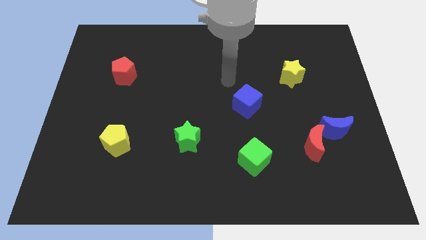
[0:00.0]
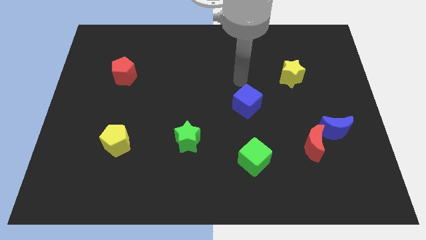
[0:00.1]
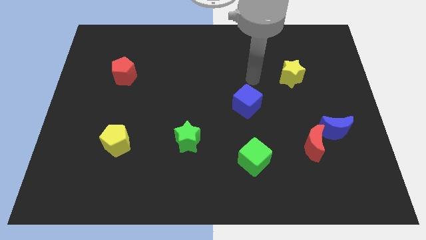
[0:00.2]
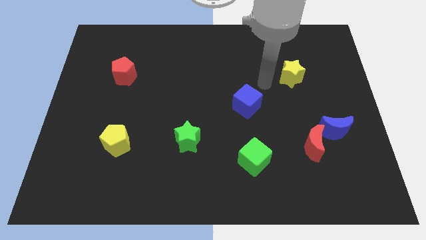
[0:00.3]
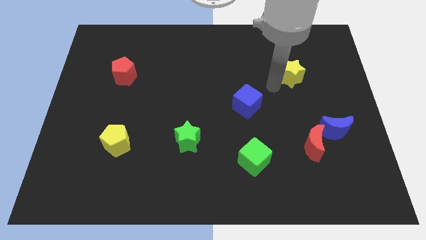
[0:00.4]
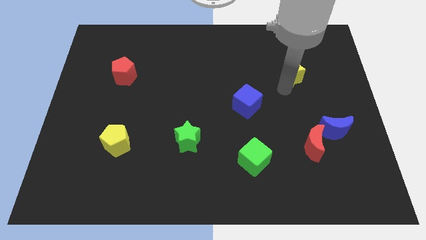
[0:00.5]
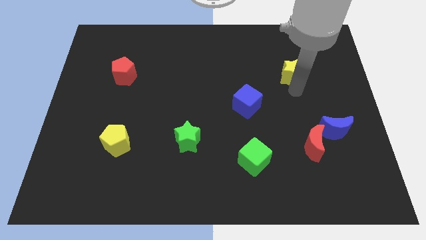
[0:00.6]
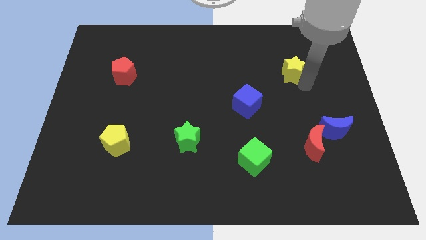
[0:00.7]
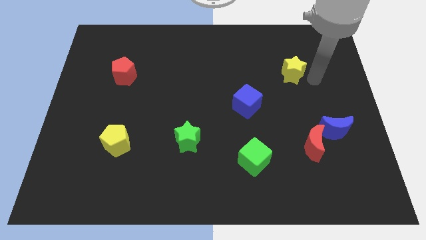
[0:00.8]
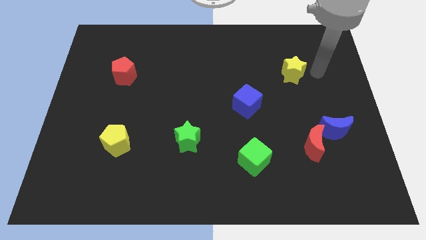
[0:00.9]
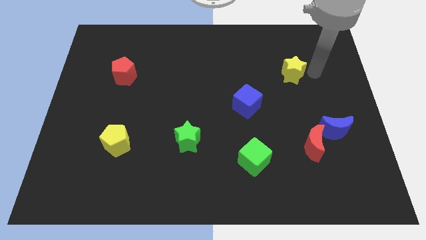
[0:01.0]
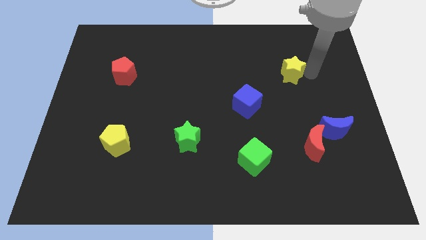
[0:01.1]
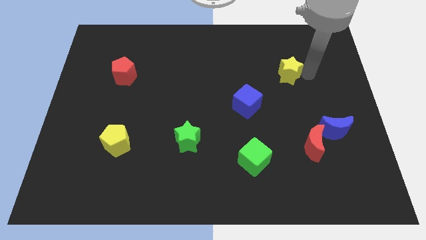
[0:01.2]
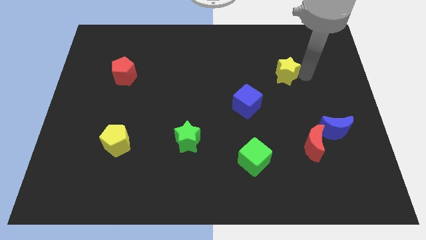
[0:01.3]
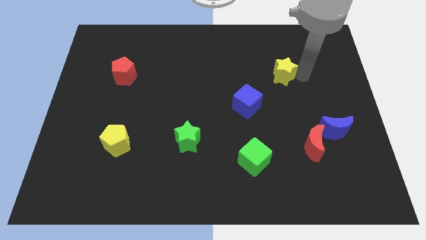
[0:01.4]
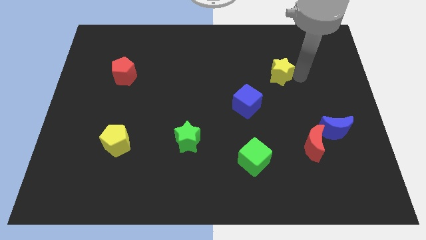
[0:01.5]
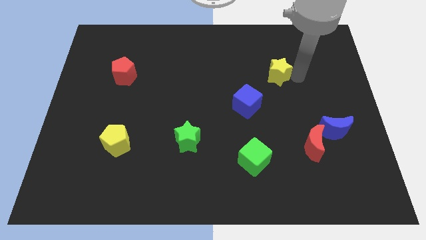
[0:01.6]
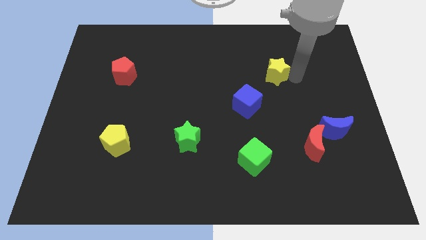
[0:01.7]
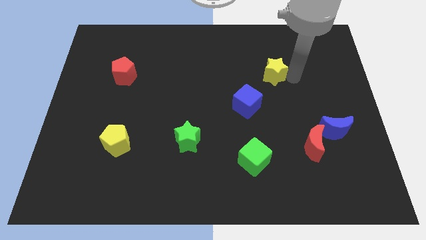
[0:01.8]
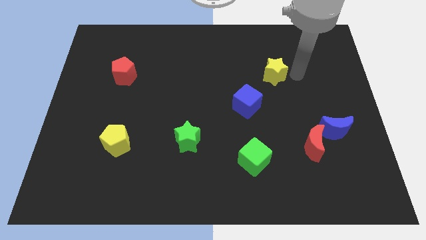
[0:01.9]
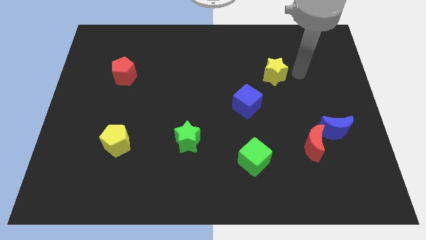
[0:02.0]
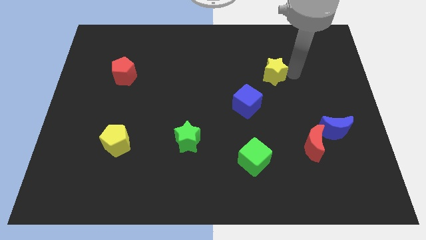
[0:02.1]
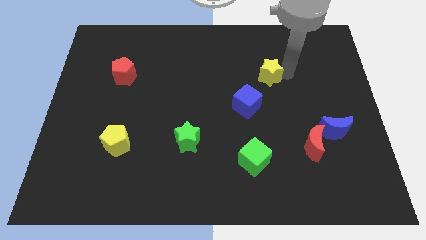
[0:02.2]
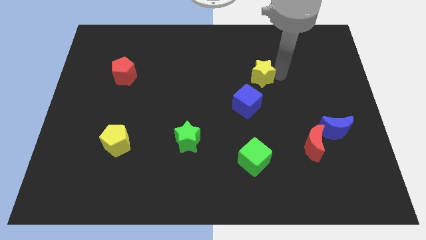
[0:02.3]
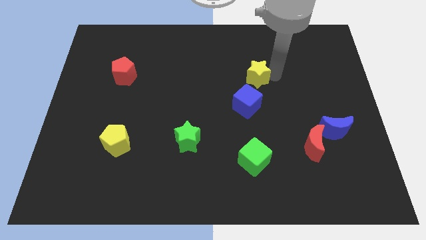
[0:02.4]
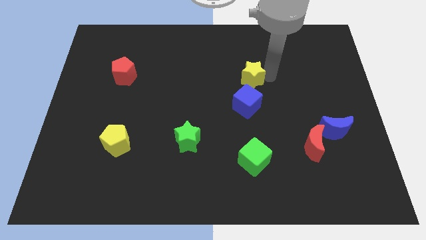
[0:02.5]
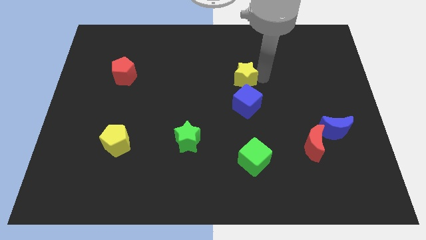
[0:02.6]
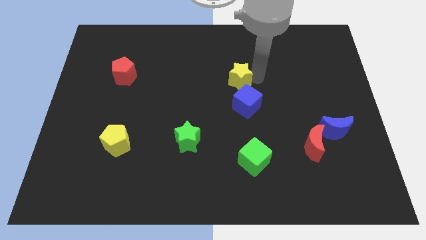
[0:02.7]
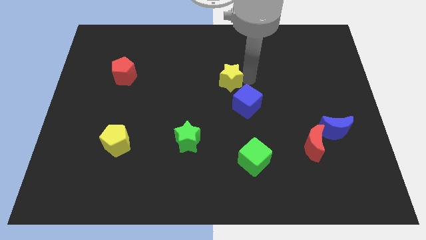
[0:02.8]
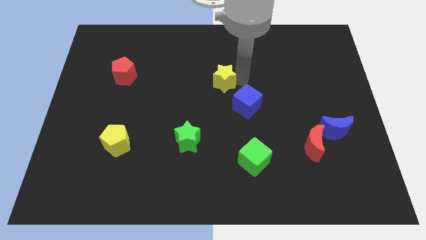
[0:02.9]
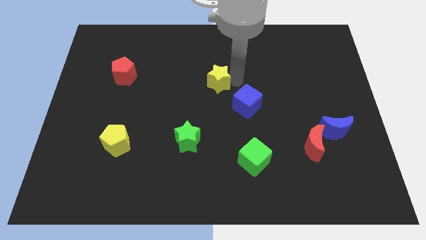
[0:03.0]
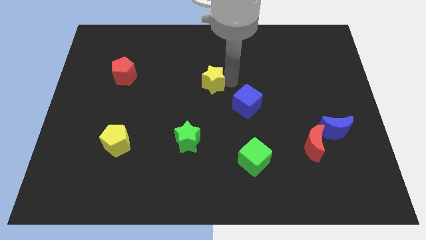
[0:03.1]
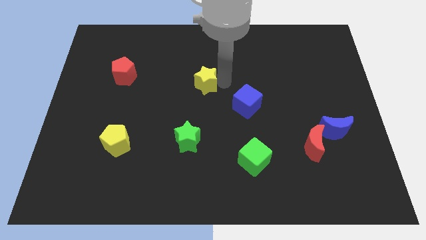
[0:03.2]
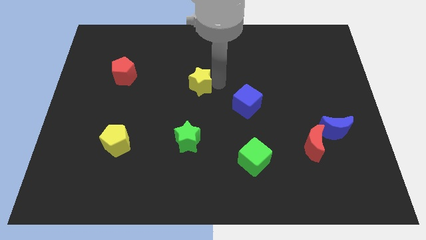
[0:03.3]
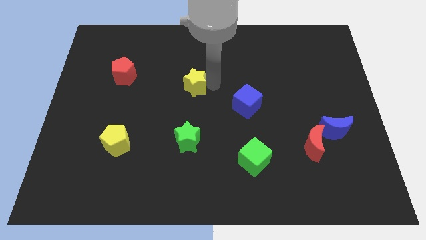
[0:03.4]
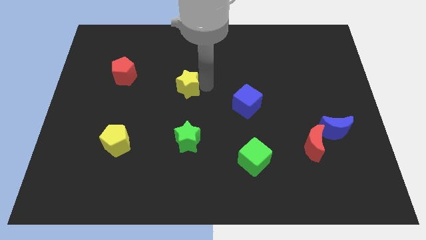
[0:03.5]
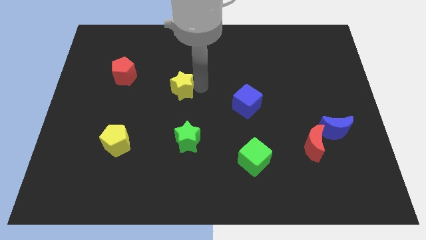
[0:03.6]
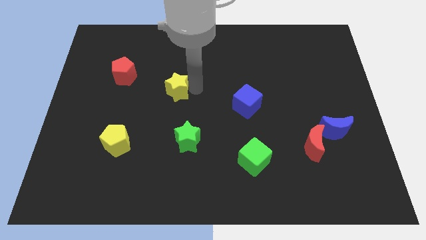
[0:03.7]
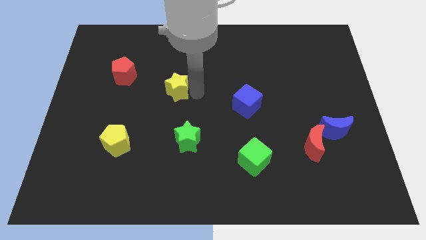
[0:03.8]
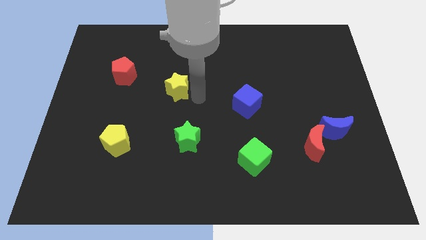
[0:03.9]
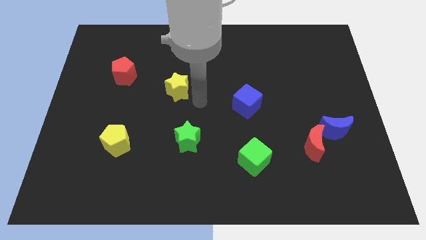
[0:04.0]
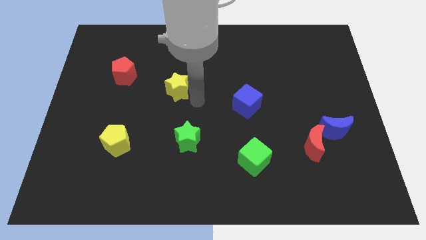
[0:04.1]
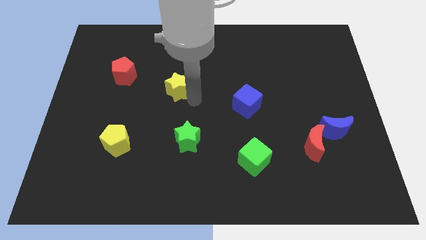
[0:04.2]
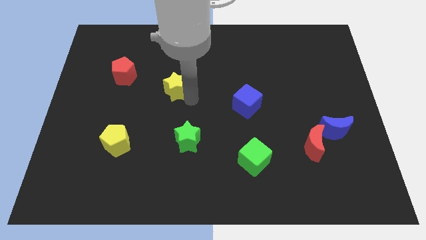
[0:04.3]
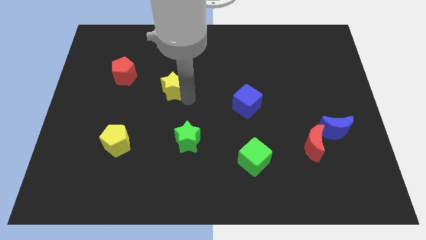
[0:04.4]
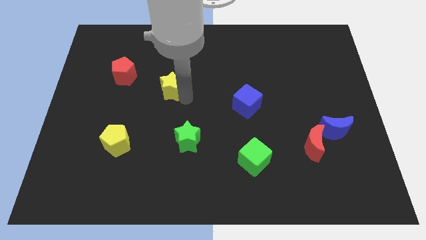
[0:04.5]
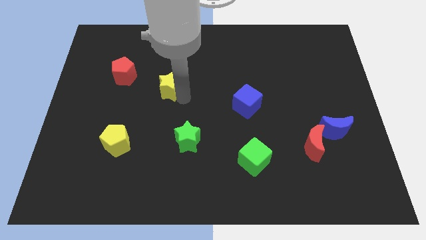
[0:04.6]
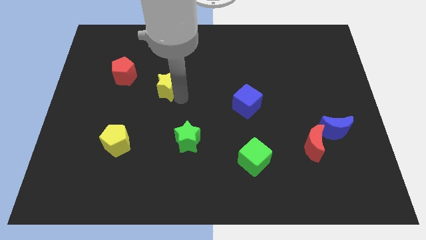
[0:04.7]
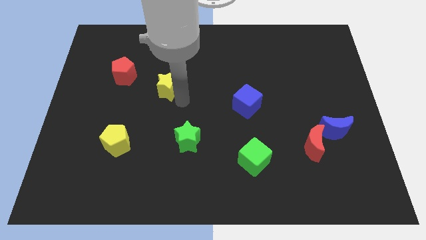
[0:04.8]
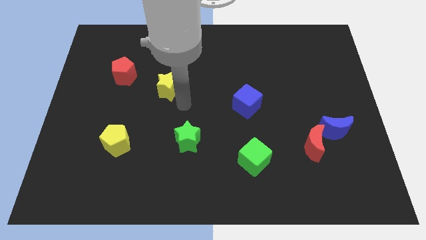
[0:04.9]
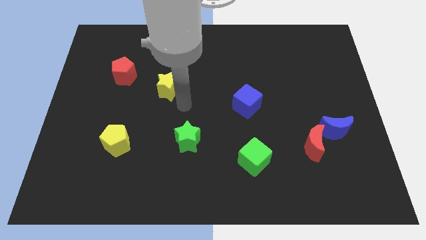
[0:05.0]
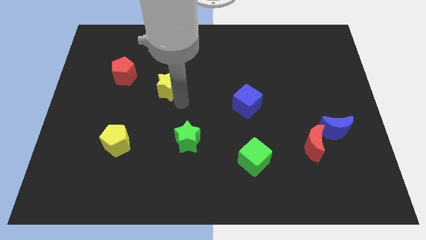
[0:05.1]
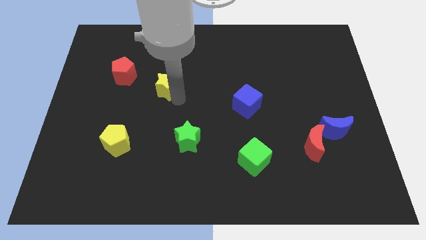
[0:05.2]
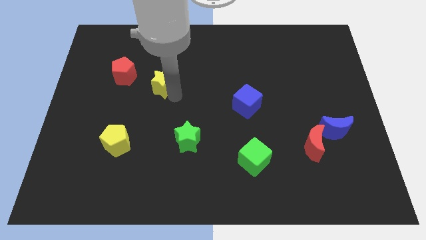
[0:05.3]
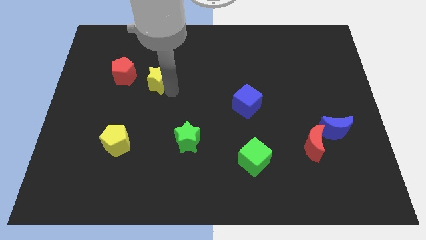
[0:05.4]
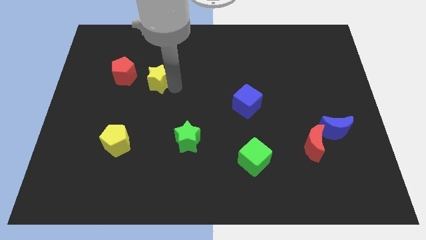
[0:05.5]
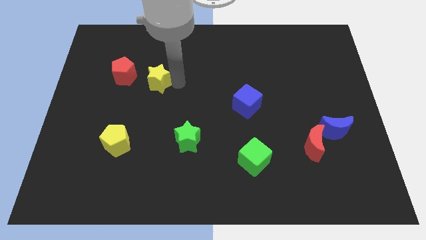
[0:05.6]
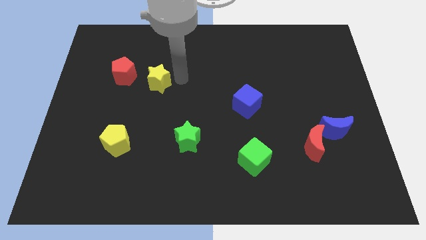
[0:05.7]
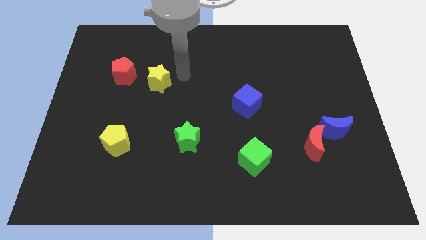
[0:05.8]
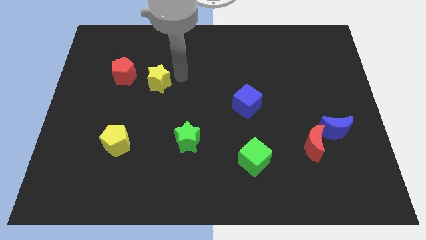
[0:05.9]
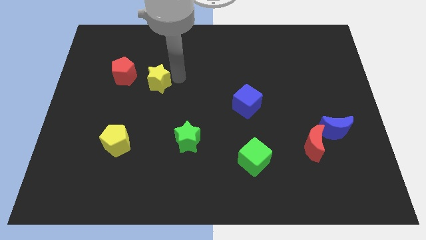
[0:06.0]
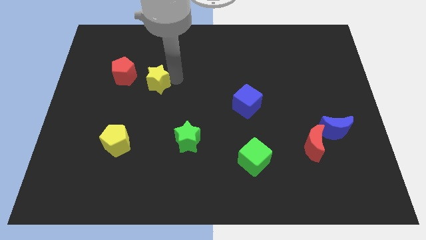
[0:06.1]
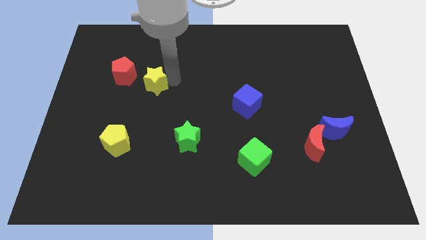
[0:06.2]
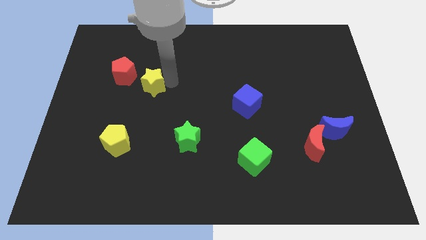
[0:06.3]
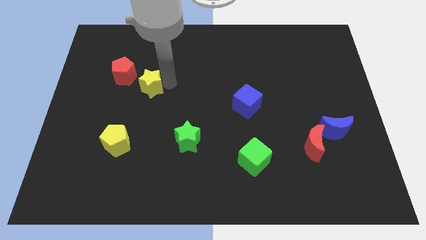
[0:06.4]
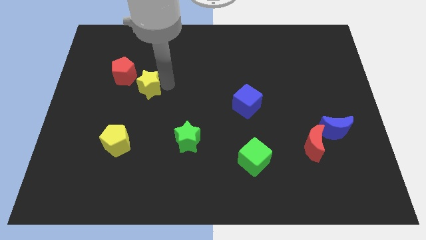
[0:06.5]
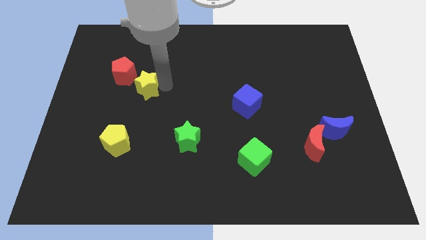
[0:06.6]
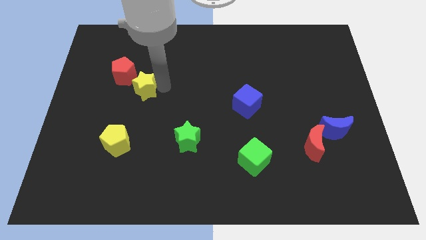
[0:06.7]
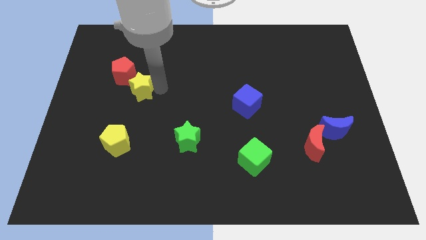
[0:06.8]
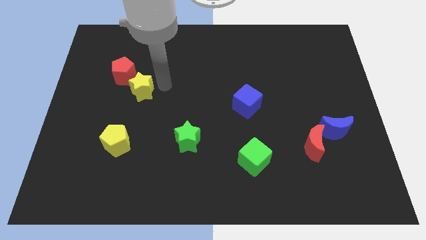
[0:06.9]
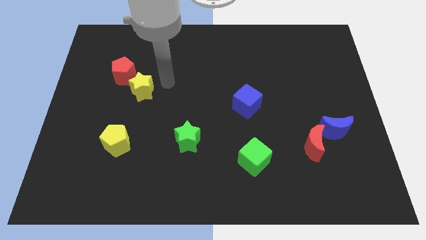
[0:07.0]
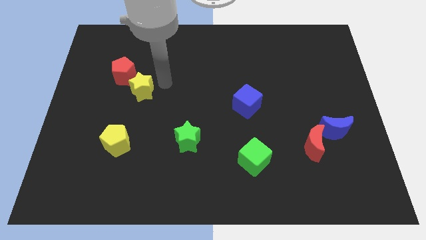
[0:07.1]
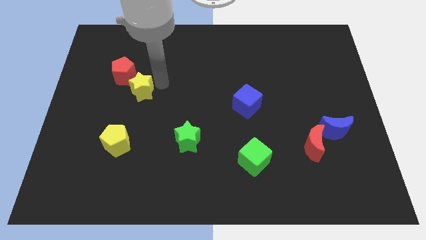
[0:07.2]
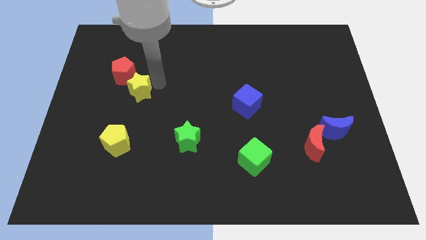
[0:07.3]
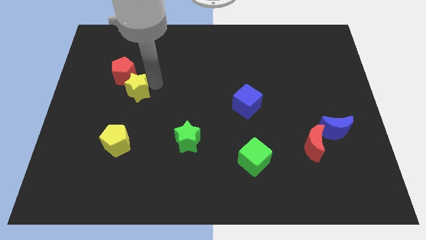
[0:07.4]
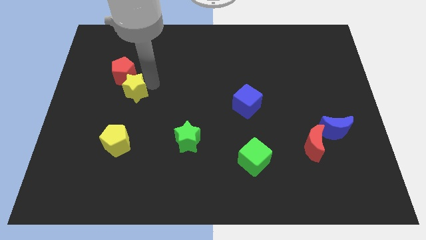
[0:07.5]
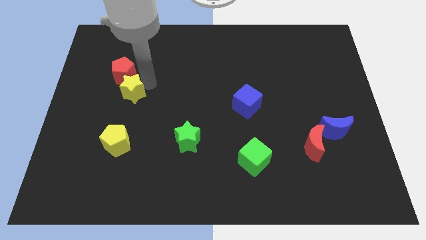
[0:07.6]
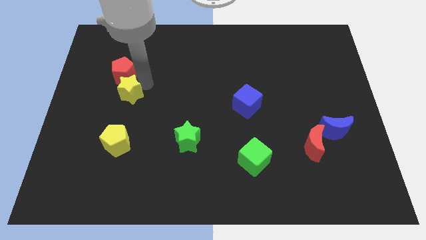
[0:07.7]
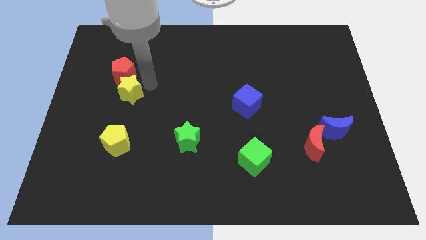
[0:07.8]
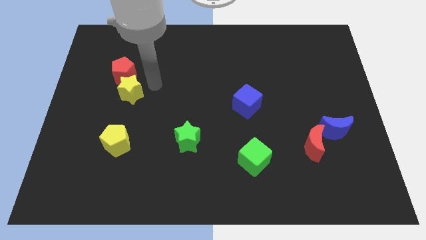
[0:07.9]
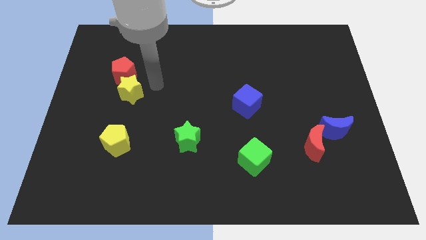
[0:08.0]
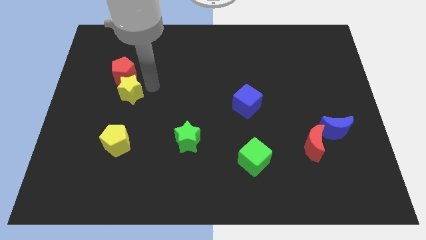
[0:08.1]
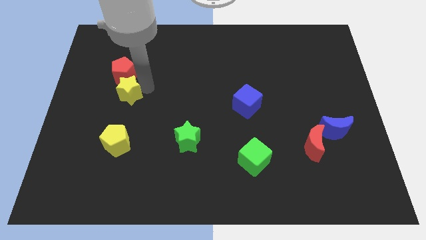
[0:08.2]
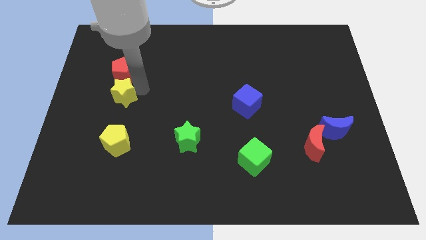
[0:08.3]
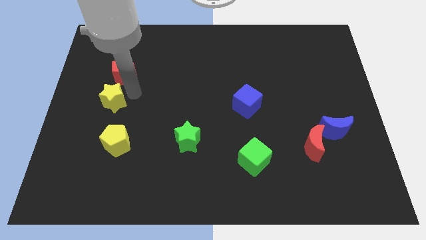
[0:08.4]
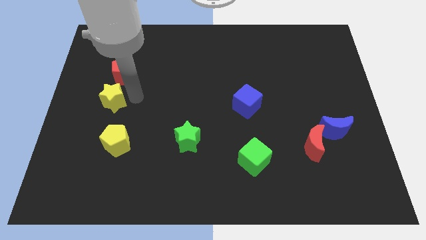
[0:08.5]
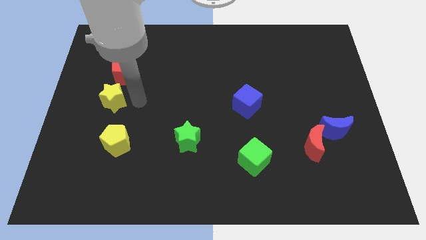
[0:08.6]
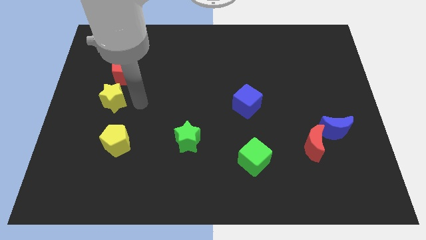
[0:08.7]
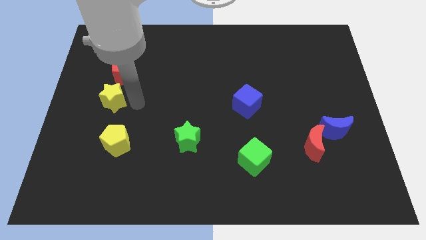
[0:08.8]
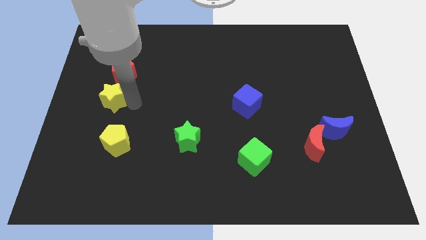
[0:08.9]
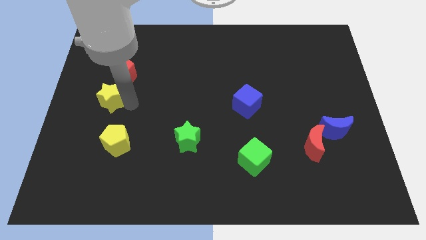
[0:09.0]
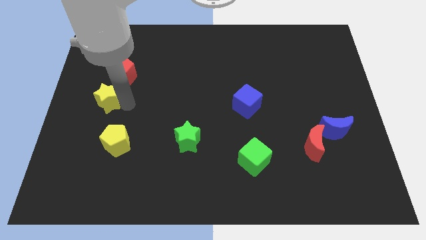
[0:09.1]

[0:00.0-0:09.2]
slide the yellow star to the left side of the board
